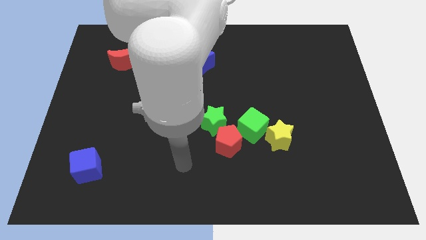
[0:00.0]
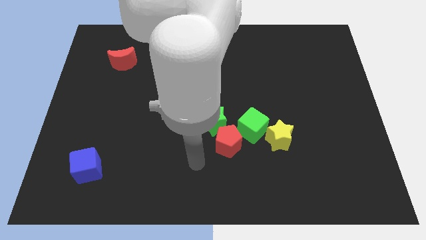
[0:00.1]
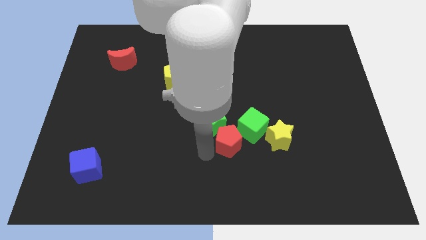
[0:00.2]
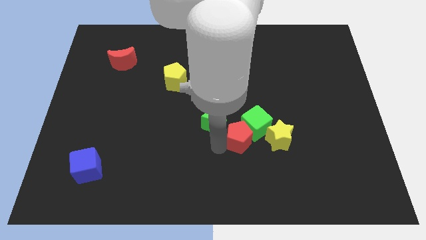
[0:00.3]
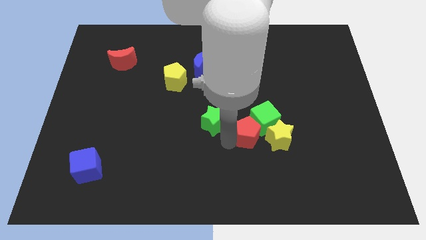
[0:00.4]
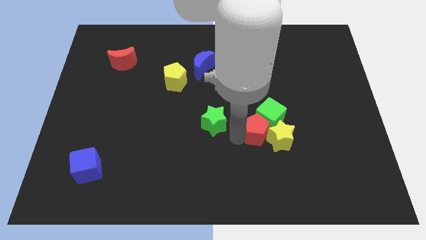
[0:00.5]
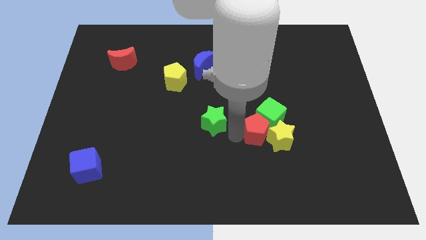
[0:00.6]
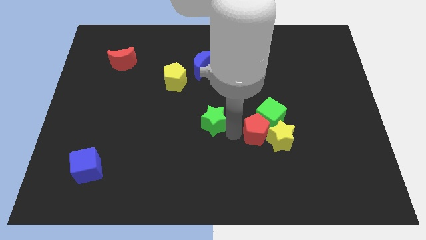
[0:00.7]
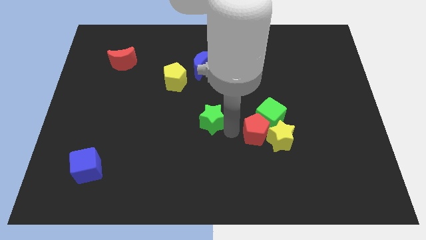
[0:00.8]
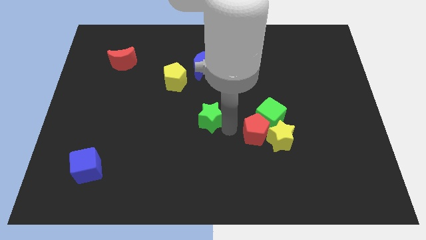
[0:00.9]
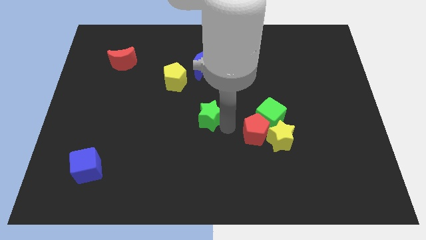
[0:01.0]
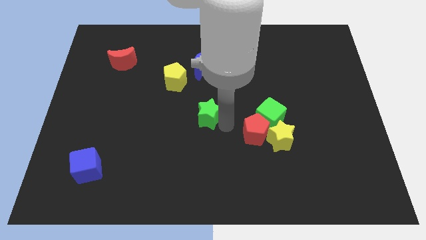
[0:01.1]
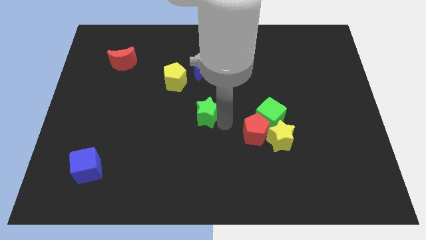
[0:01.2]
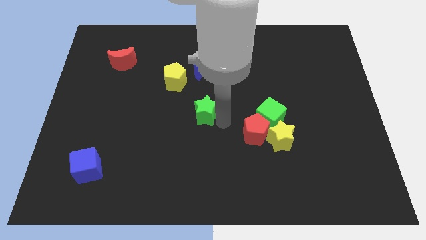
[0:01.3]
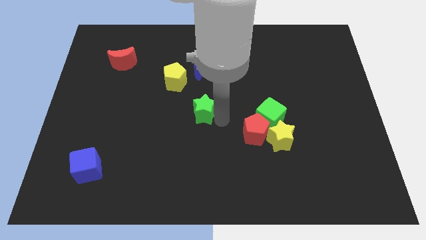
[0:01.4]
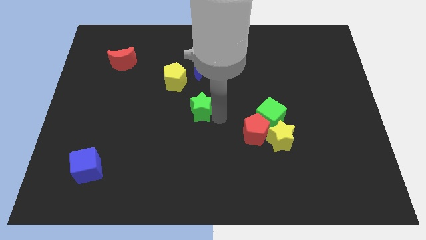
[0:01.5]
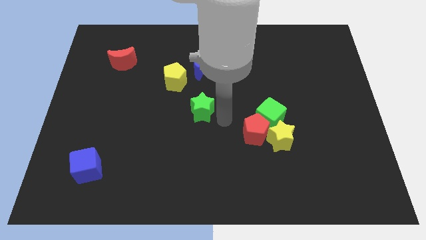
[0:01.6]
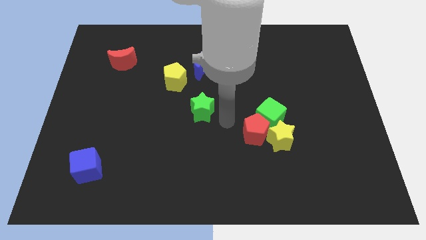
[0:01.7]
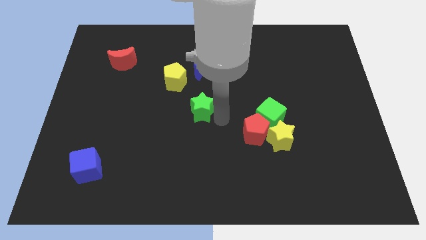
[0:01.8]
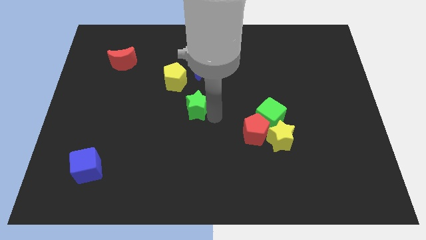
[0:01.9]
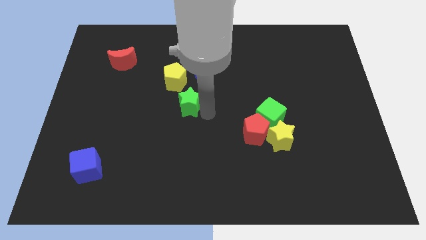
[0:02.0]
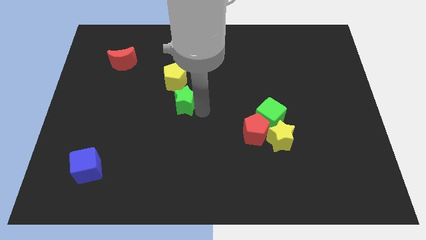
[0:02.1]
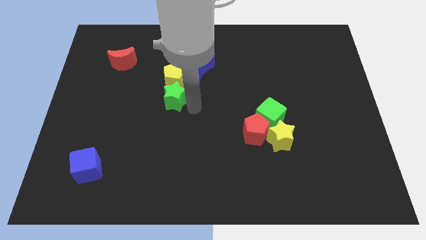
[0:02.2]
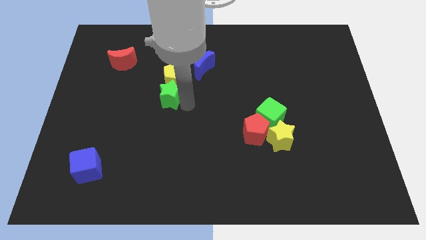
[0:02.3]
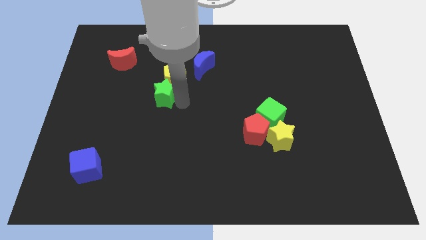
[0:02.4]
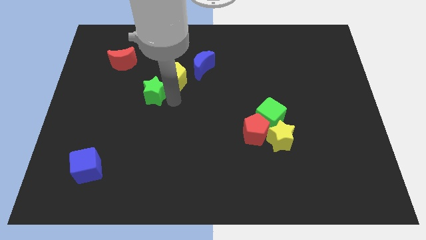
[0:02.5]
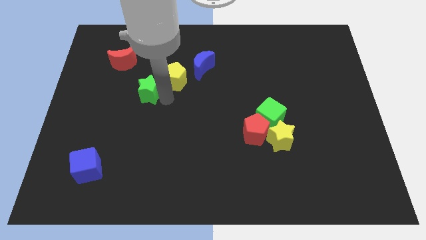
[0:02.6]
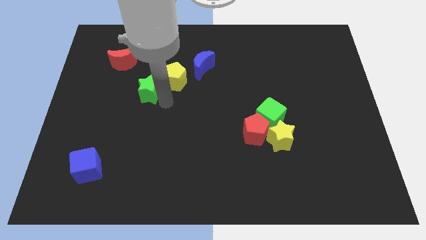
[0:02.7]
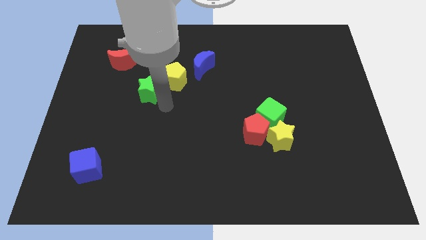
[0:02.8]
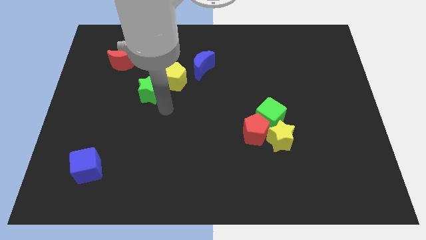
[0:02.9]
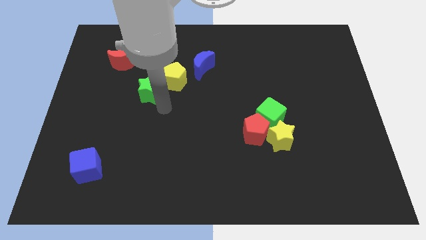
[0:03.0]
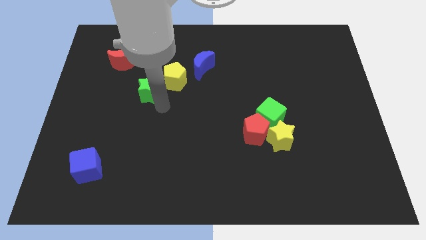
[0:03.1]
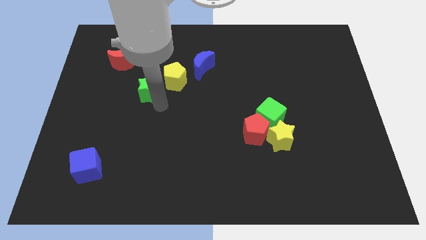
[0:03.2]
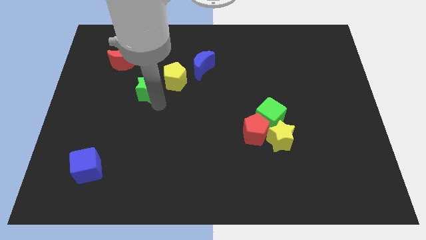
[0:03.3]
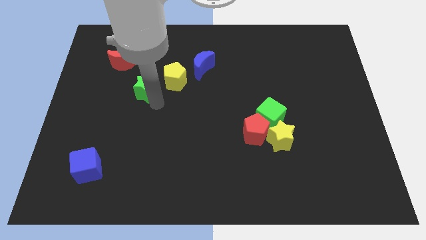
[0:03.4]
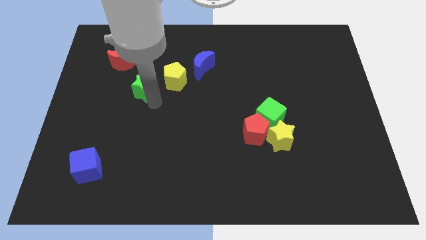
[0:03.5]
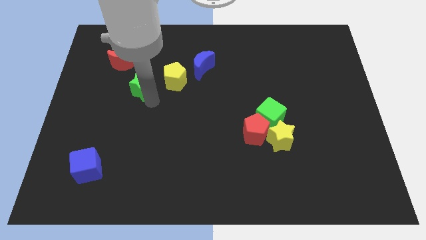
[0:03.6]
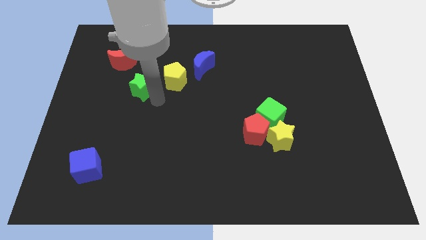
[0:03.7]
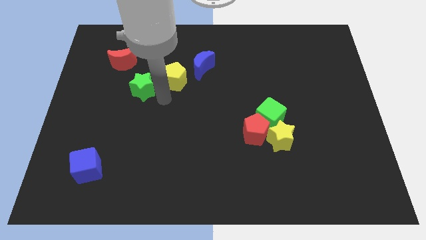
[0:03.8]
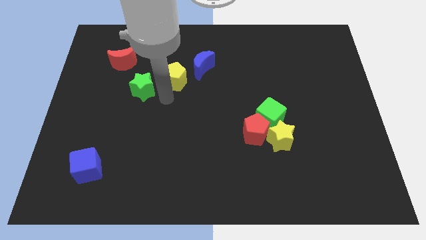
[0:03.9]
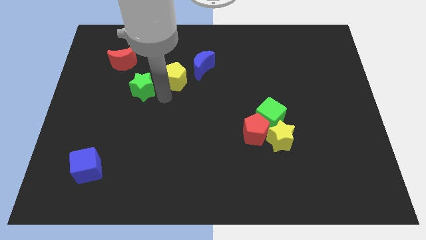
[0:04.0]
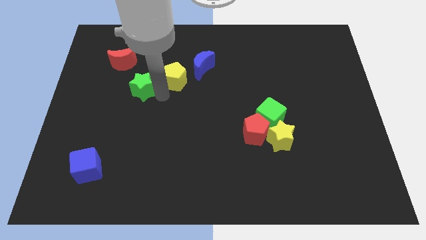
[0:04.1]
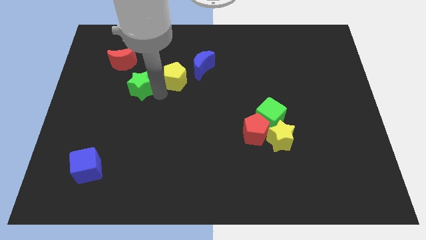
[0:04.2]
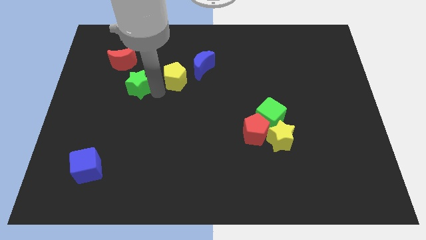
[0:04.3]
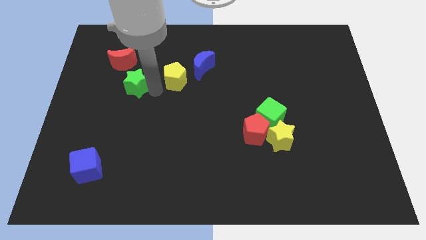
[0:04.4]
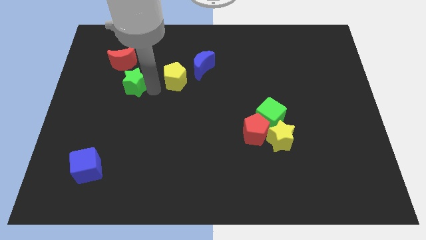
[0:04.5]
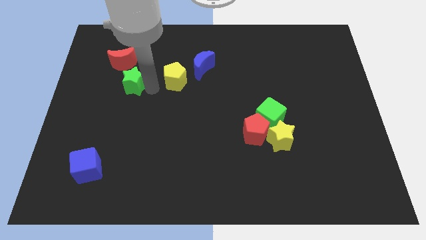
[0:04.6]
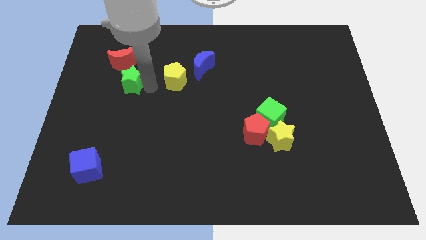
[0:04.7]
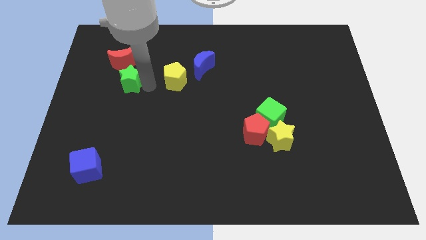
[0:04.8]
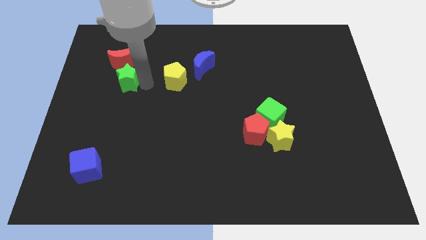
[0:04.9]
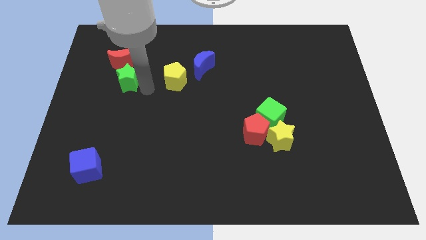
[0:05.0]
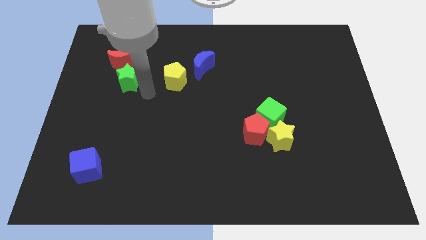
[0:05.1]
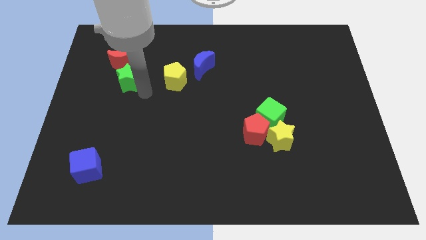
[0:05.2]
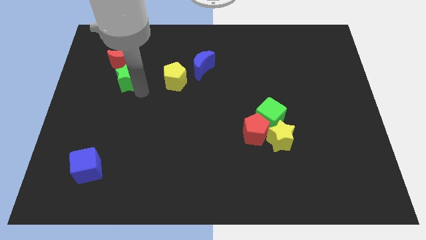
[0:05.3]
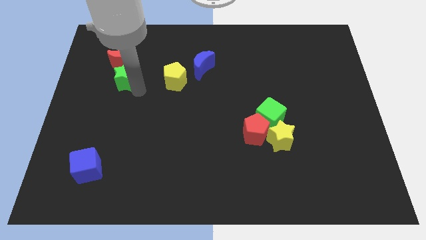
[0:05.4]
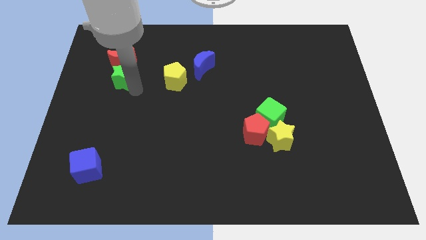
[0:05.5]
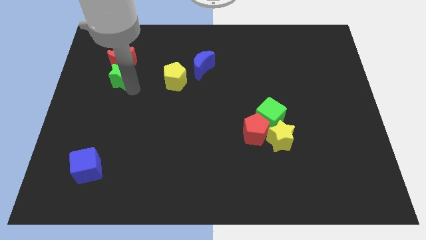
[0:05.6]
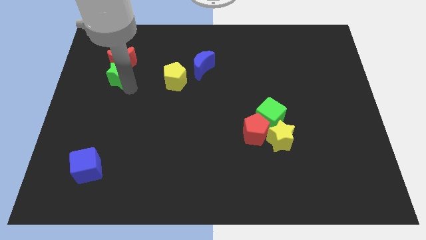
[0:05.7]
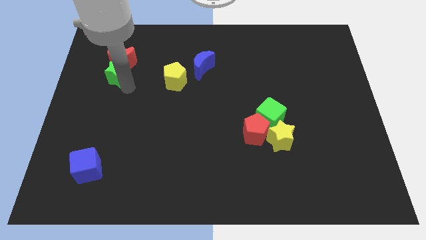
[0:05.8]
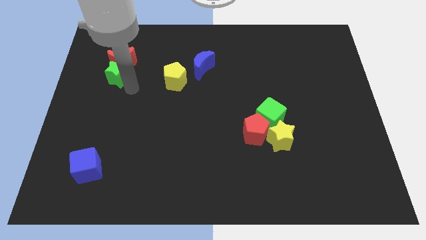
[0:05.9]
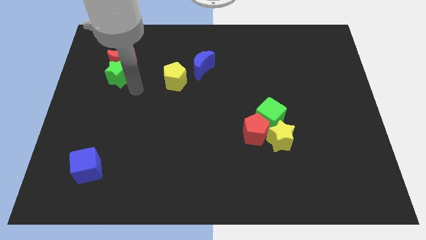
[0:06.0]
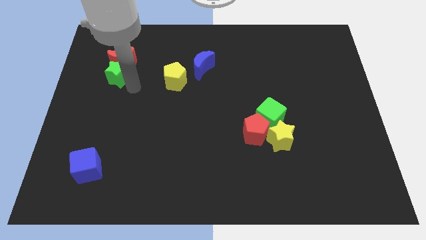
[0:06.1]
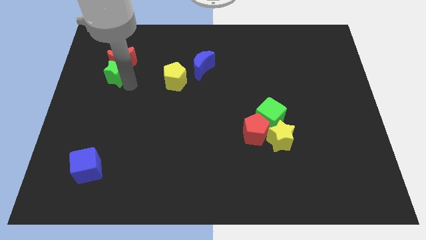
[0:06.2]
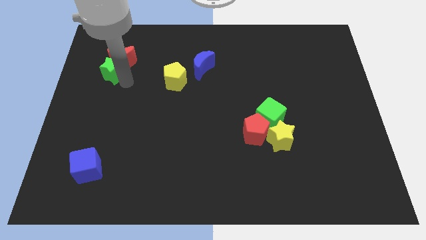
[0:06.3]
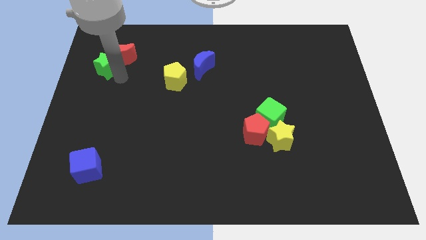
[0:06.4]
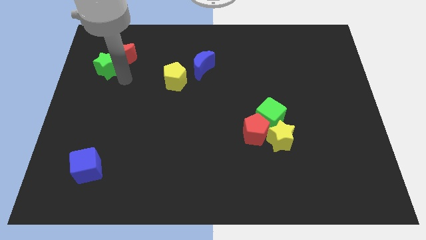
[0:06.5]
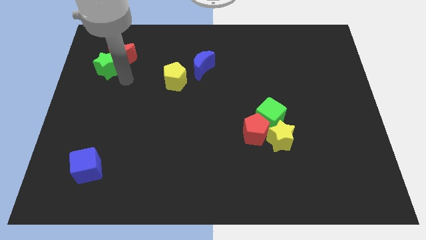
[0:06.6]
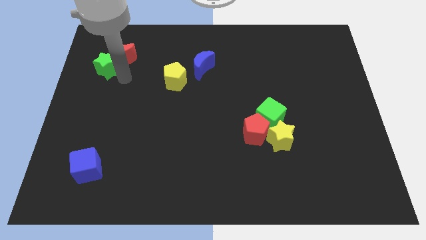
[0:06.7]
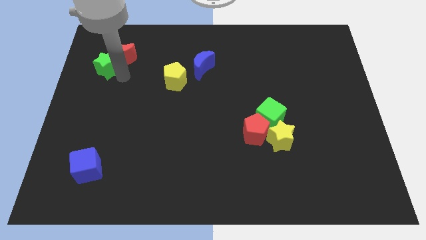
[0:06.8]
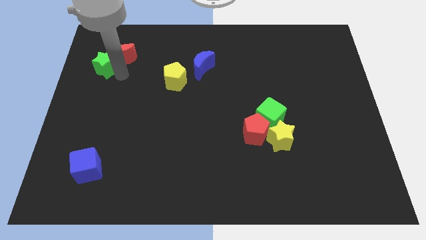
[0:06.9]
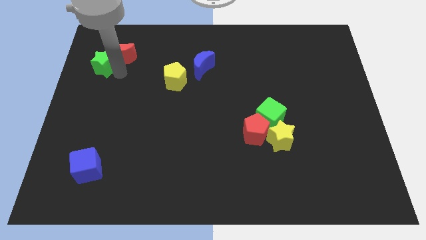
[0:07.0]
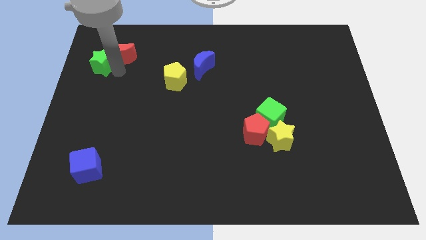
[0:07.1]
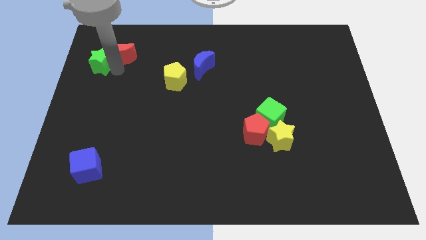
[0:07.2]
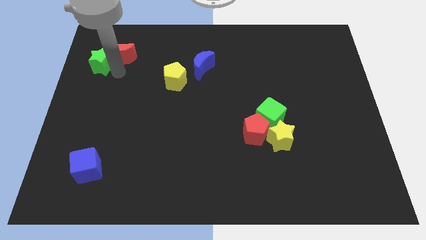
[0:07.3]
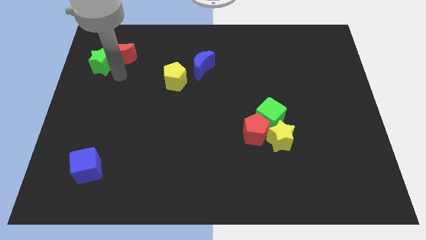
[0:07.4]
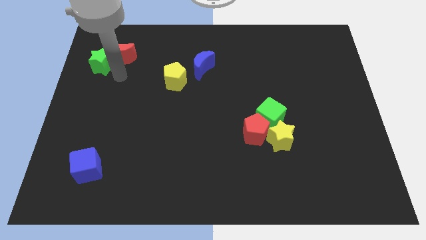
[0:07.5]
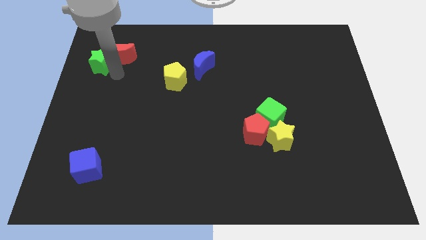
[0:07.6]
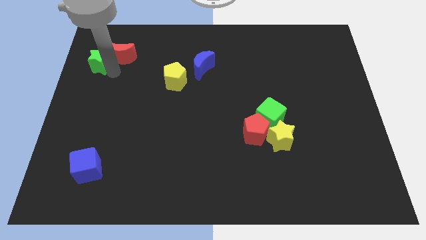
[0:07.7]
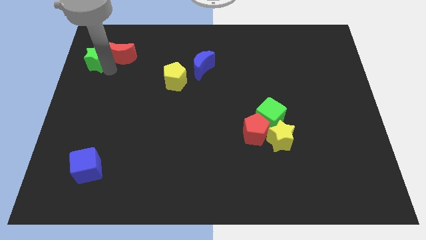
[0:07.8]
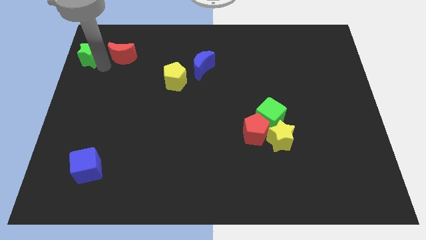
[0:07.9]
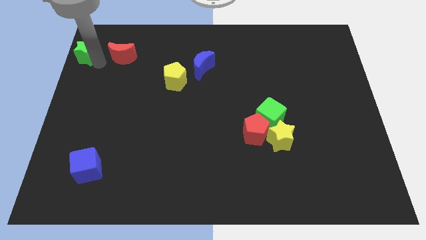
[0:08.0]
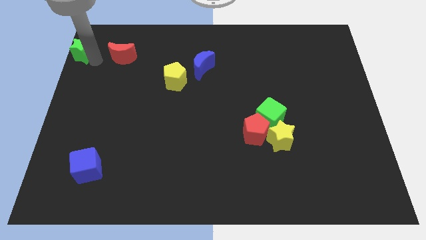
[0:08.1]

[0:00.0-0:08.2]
put the green star to the upper left corner
